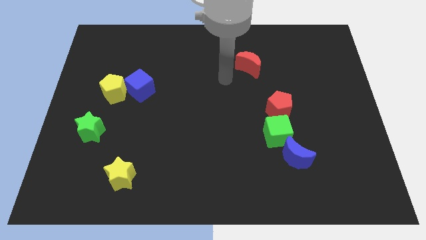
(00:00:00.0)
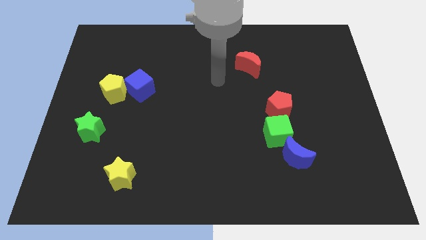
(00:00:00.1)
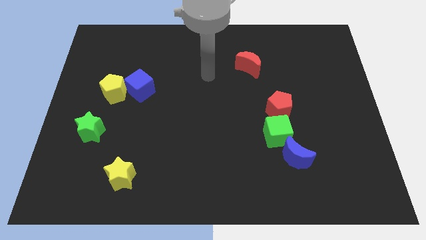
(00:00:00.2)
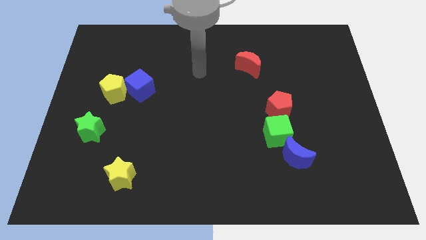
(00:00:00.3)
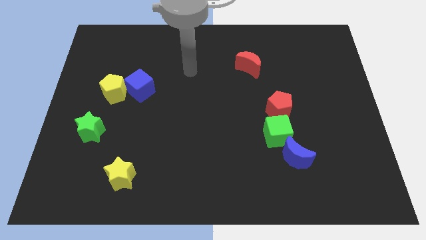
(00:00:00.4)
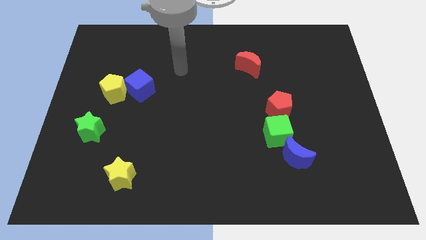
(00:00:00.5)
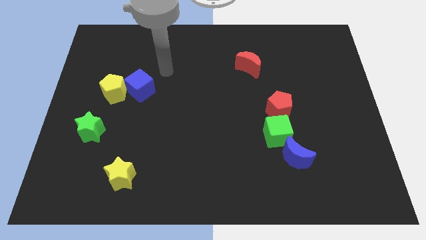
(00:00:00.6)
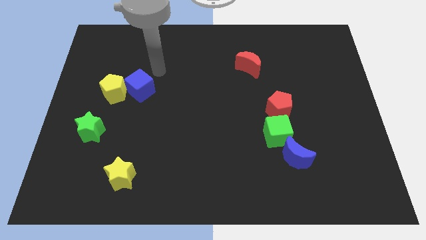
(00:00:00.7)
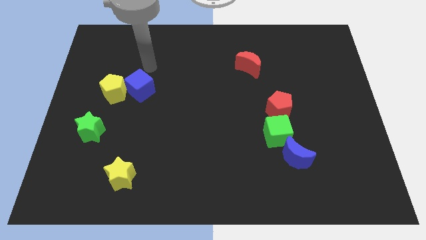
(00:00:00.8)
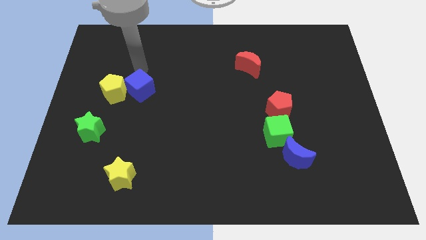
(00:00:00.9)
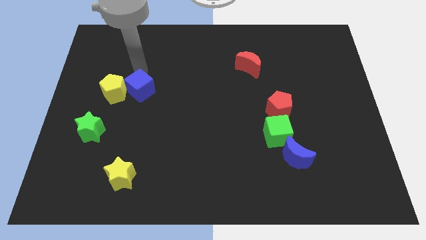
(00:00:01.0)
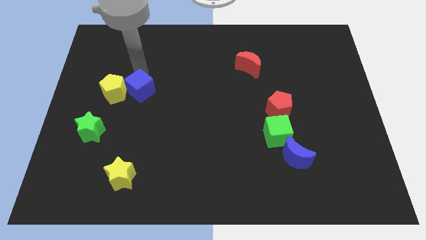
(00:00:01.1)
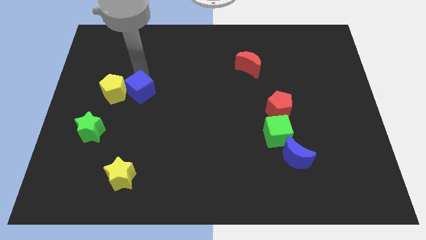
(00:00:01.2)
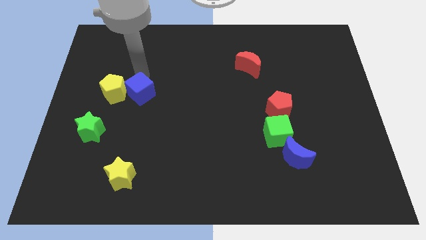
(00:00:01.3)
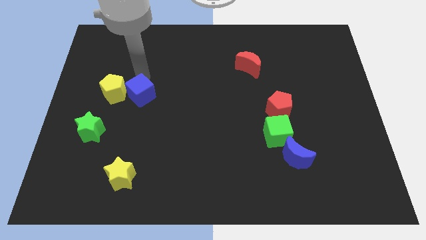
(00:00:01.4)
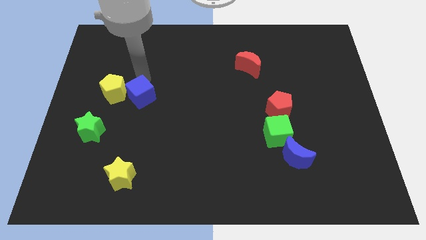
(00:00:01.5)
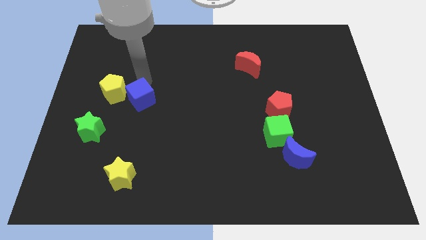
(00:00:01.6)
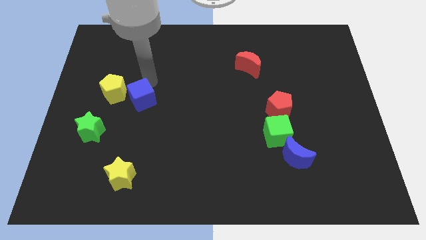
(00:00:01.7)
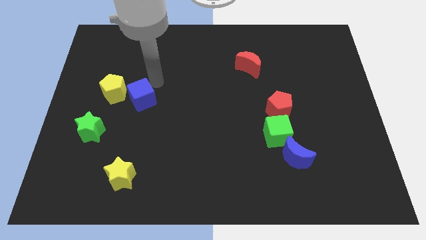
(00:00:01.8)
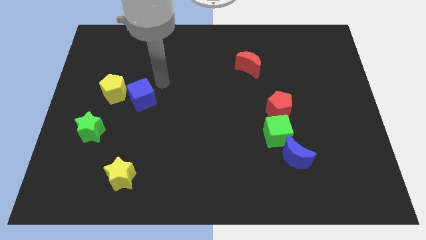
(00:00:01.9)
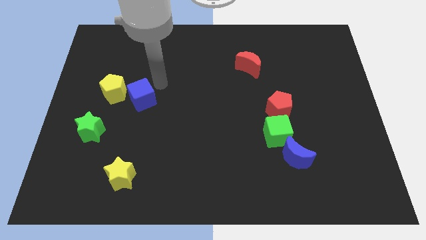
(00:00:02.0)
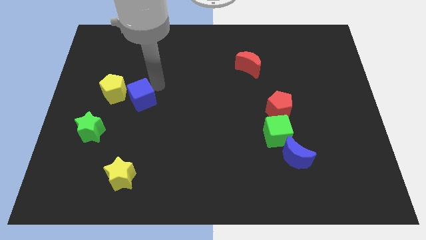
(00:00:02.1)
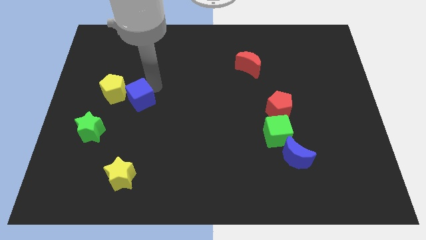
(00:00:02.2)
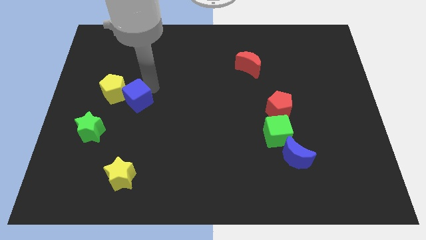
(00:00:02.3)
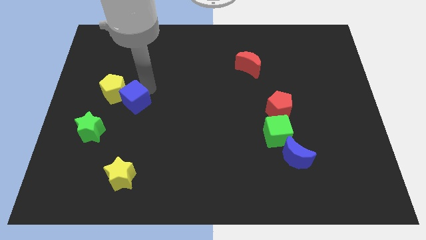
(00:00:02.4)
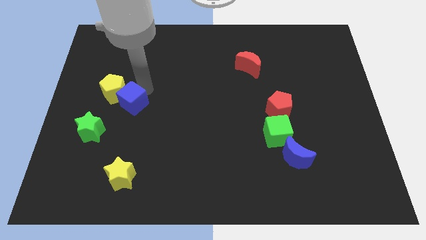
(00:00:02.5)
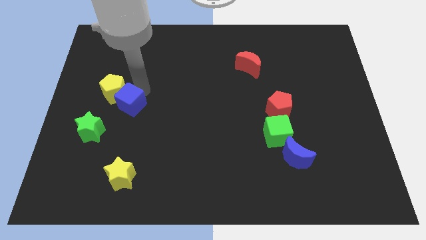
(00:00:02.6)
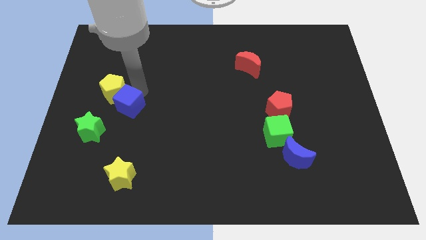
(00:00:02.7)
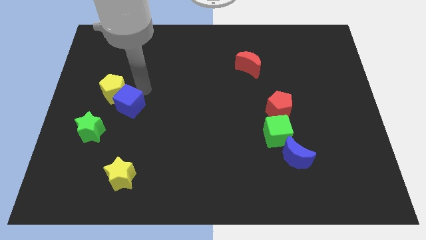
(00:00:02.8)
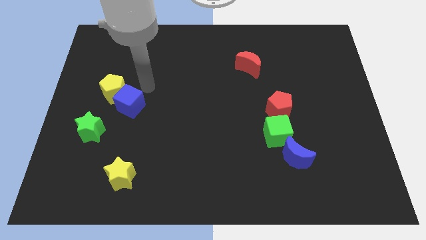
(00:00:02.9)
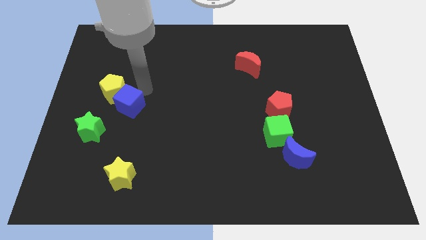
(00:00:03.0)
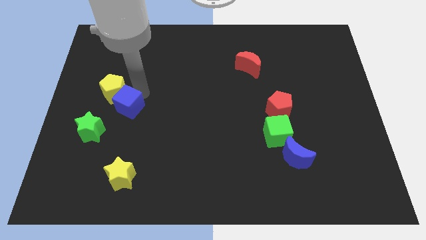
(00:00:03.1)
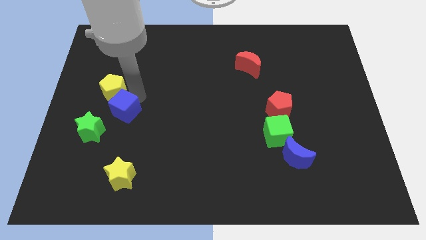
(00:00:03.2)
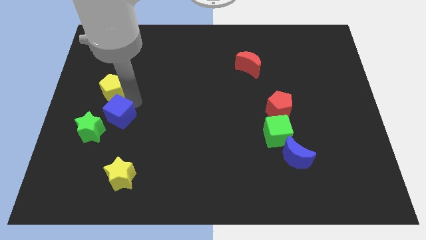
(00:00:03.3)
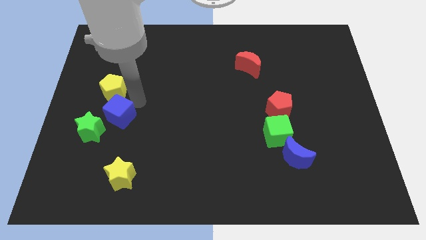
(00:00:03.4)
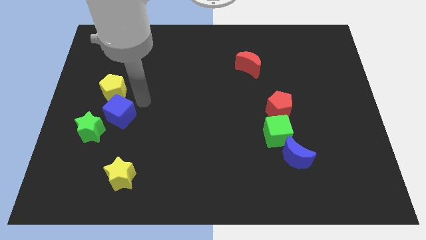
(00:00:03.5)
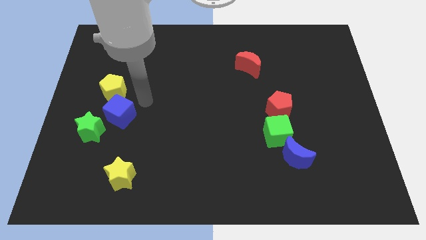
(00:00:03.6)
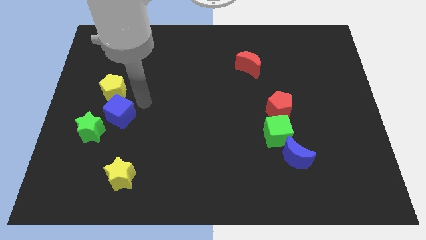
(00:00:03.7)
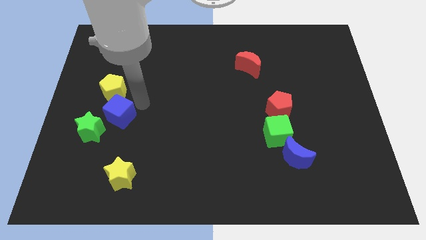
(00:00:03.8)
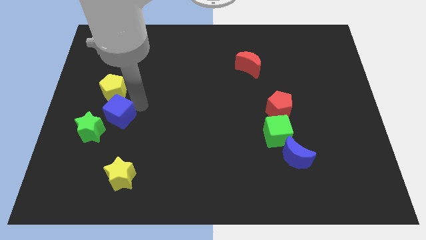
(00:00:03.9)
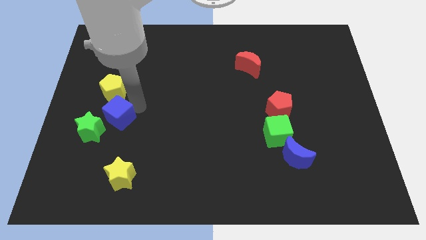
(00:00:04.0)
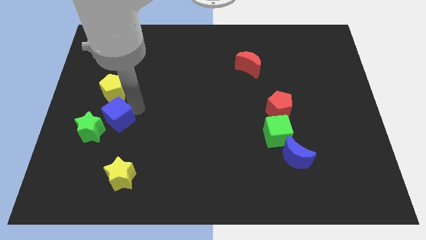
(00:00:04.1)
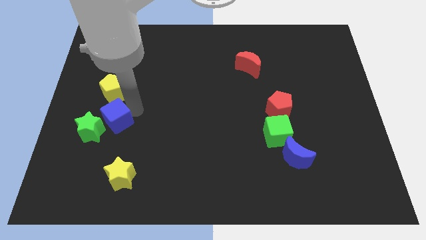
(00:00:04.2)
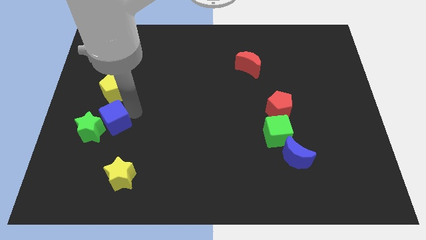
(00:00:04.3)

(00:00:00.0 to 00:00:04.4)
slide the blue cube next to the green star

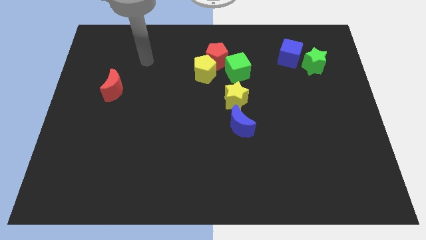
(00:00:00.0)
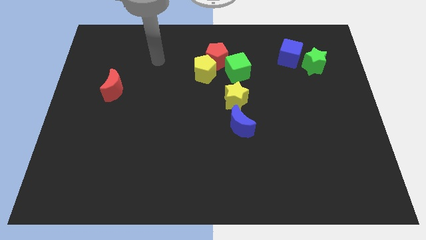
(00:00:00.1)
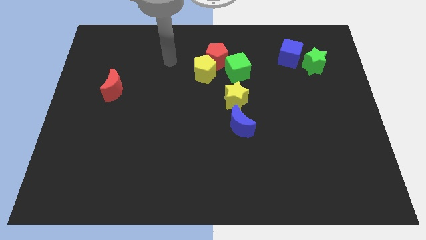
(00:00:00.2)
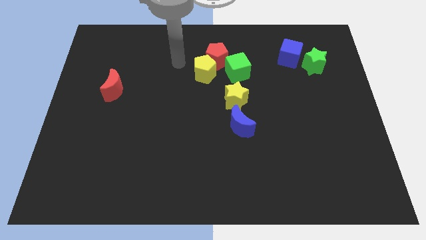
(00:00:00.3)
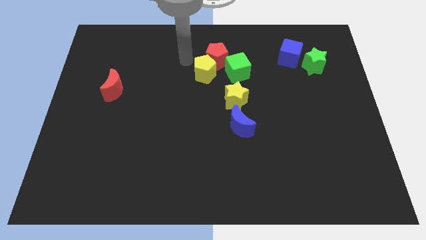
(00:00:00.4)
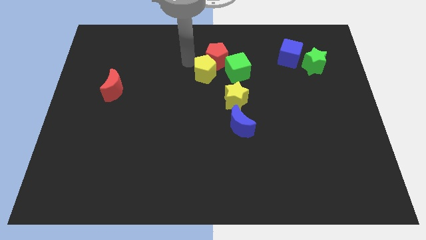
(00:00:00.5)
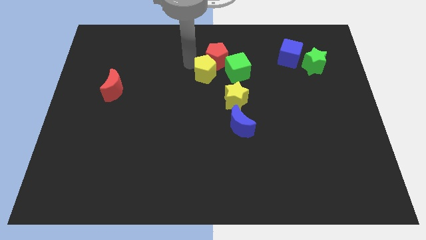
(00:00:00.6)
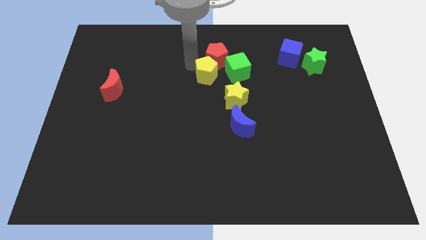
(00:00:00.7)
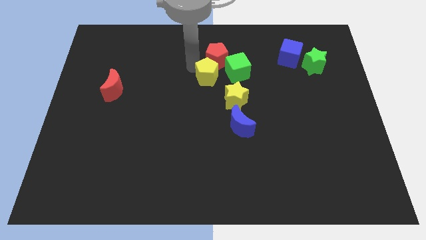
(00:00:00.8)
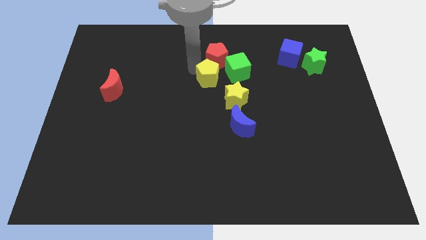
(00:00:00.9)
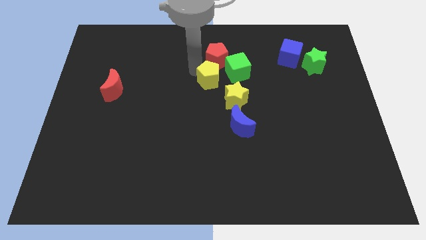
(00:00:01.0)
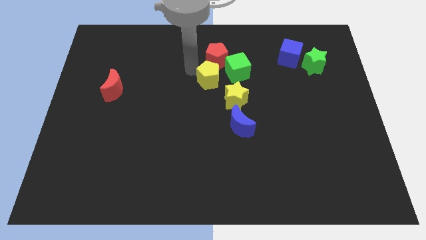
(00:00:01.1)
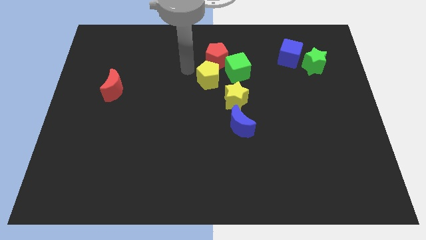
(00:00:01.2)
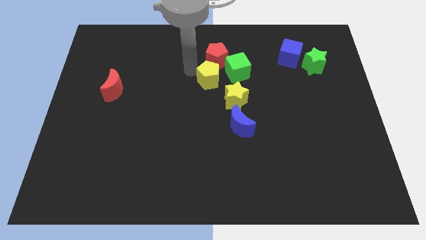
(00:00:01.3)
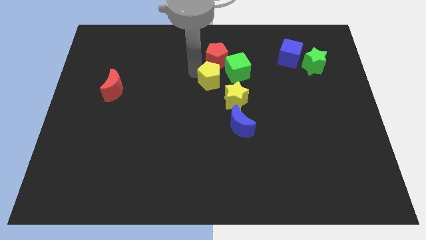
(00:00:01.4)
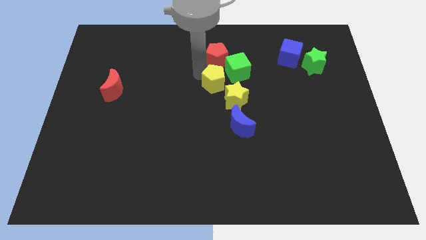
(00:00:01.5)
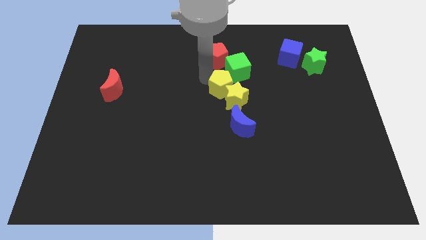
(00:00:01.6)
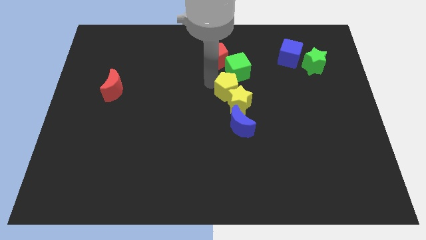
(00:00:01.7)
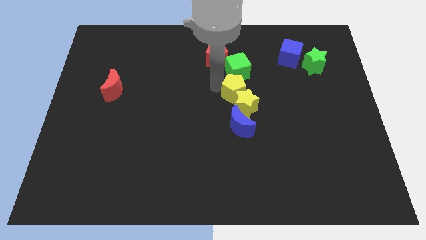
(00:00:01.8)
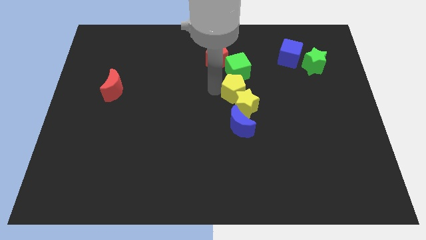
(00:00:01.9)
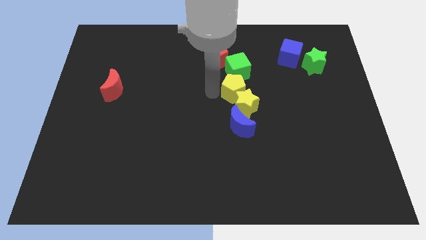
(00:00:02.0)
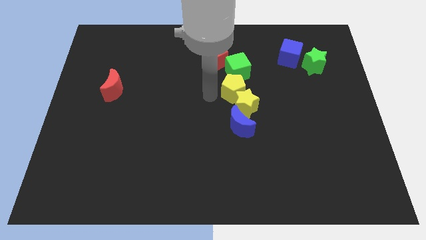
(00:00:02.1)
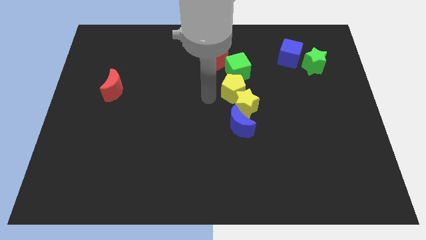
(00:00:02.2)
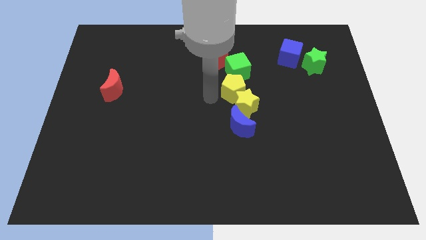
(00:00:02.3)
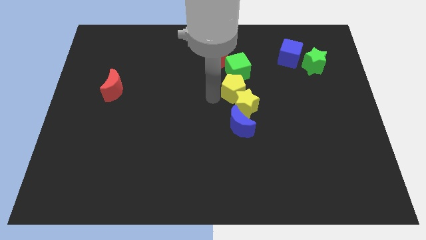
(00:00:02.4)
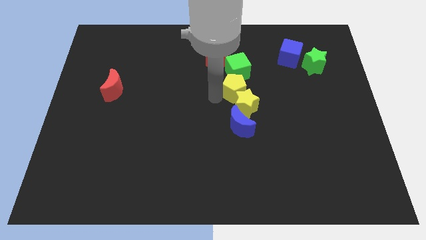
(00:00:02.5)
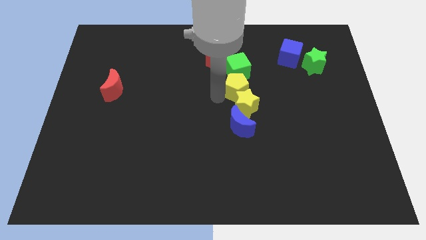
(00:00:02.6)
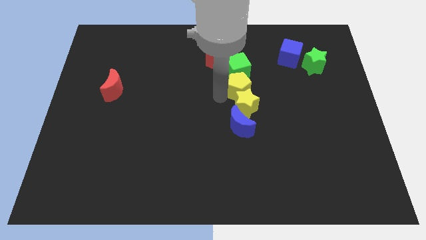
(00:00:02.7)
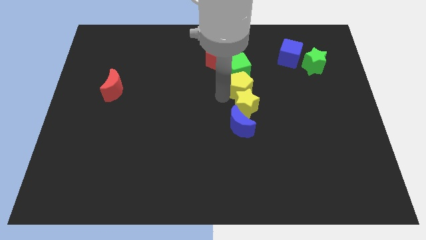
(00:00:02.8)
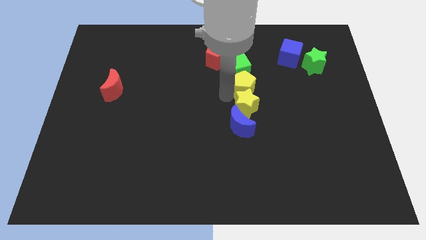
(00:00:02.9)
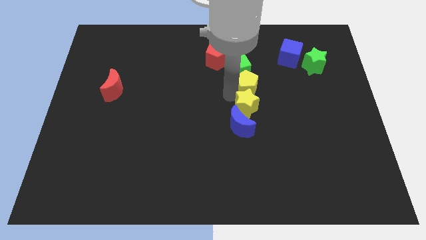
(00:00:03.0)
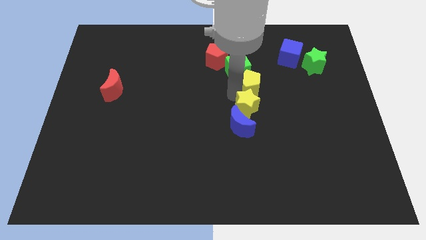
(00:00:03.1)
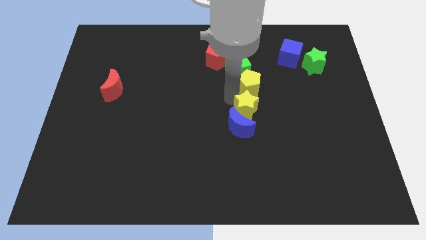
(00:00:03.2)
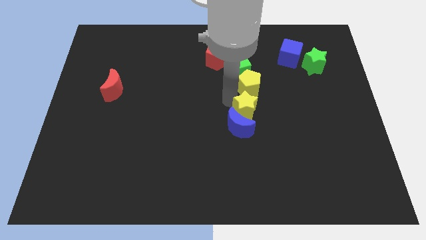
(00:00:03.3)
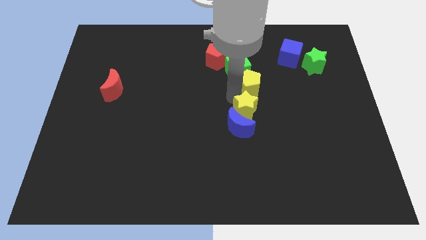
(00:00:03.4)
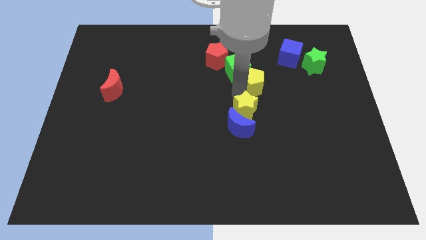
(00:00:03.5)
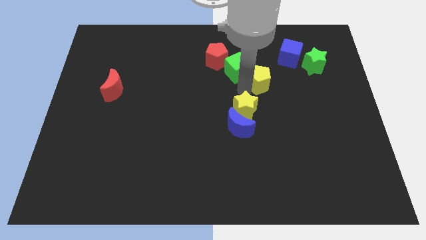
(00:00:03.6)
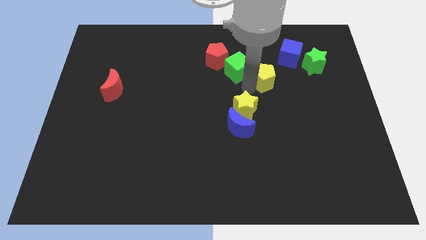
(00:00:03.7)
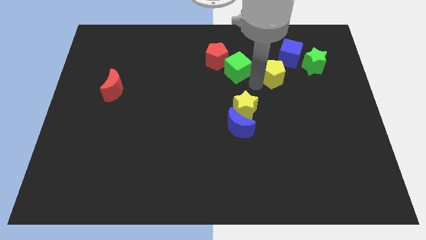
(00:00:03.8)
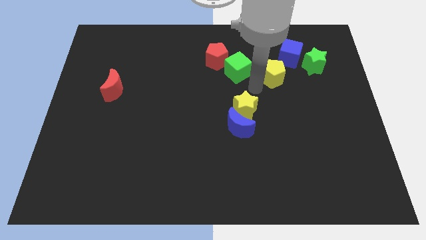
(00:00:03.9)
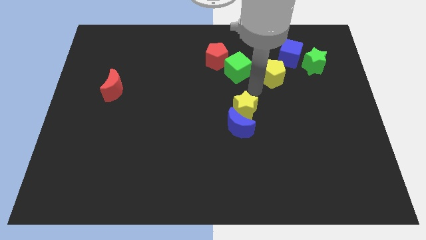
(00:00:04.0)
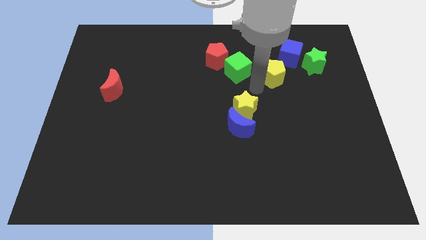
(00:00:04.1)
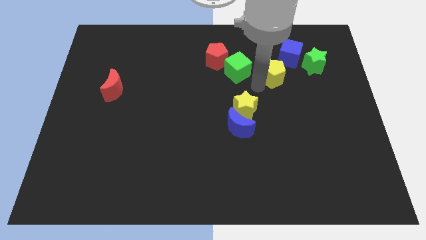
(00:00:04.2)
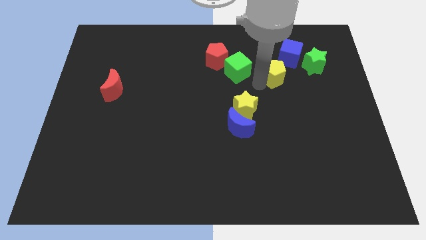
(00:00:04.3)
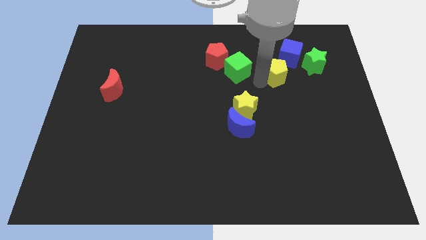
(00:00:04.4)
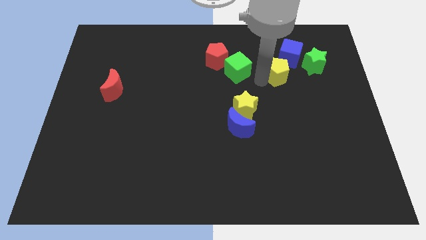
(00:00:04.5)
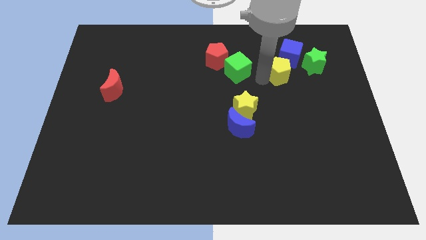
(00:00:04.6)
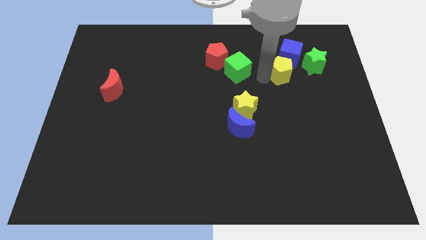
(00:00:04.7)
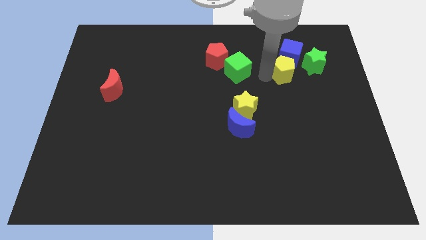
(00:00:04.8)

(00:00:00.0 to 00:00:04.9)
move the yellow pentagon to the blue cube
